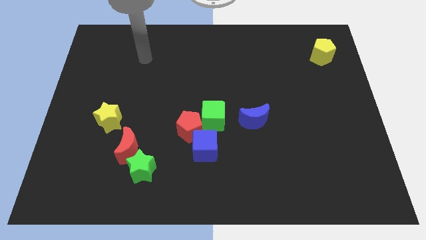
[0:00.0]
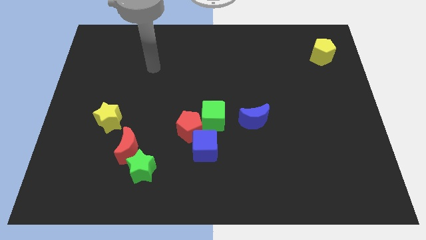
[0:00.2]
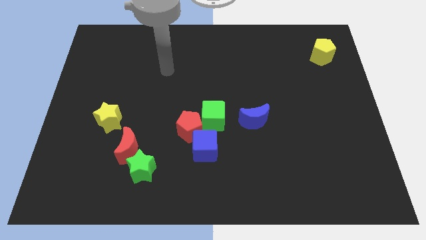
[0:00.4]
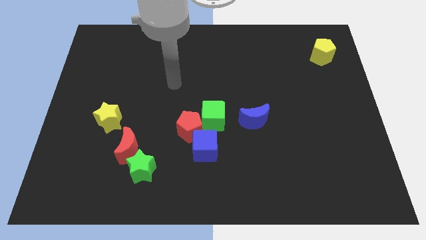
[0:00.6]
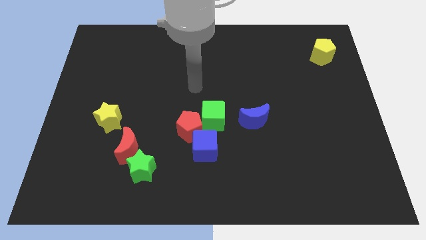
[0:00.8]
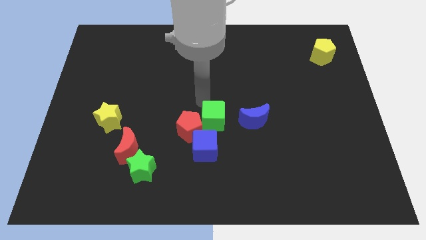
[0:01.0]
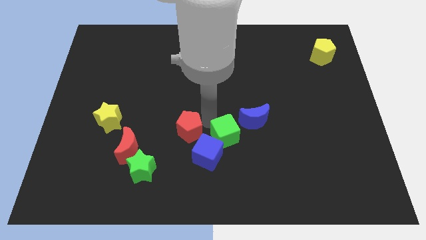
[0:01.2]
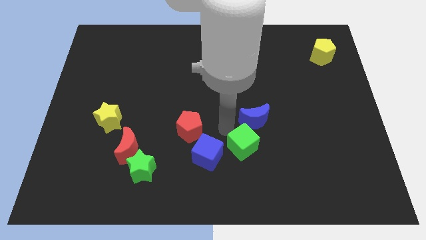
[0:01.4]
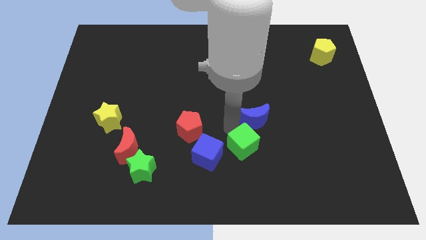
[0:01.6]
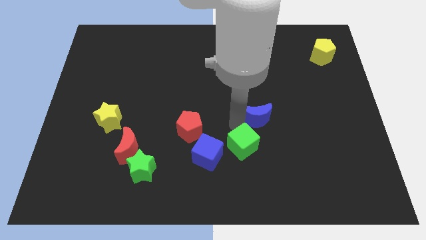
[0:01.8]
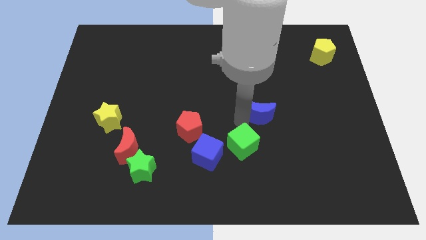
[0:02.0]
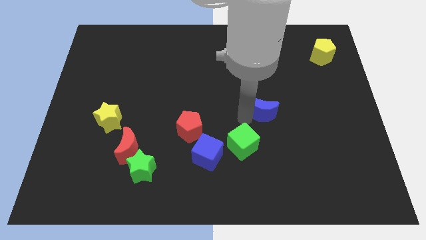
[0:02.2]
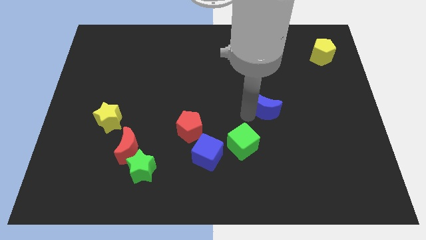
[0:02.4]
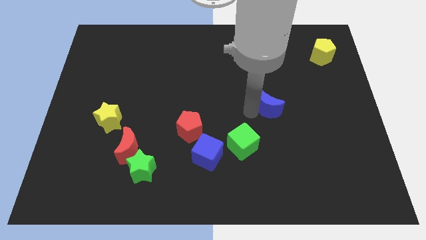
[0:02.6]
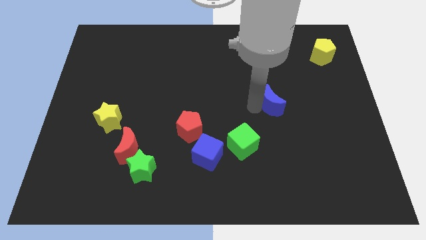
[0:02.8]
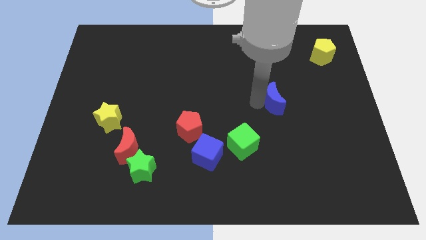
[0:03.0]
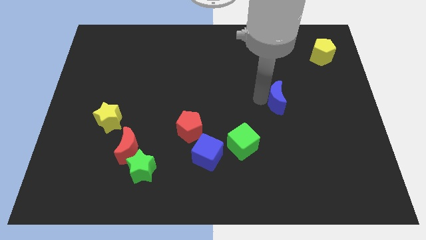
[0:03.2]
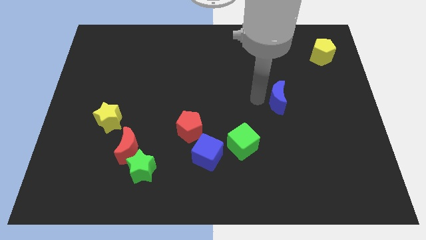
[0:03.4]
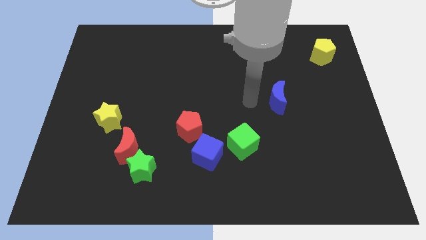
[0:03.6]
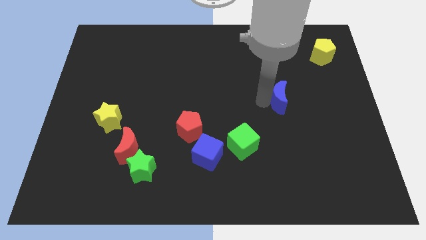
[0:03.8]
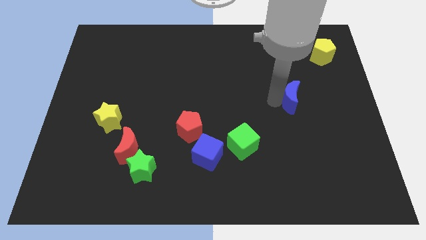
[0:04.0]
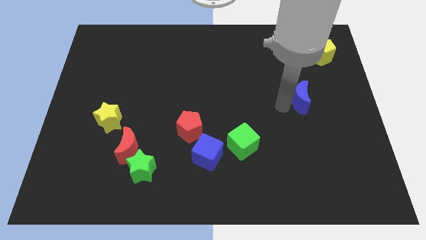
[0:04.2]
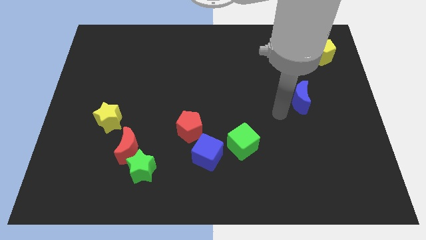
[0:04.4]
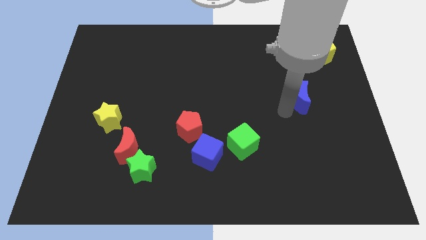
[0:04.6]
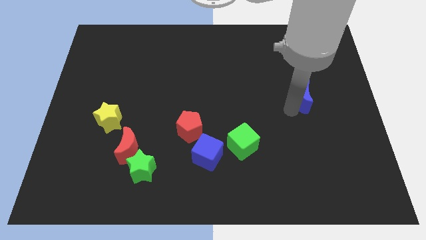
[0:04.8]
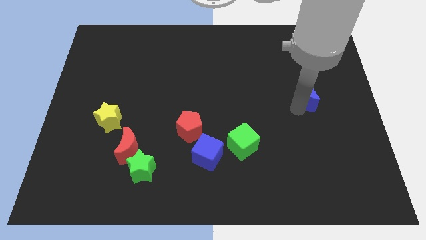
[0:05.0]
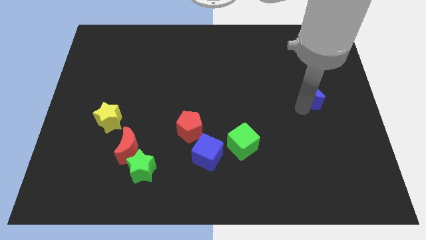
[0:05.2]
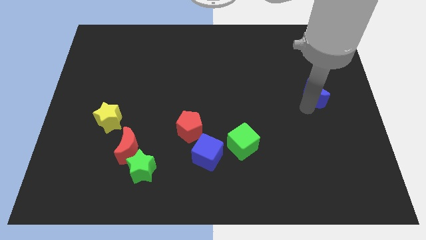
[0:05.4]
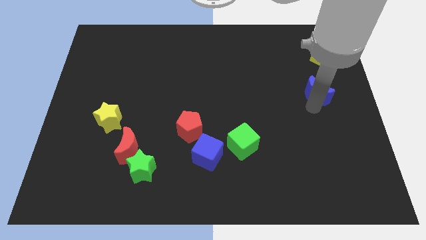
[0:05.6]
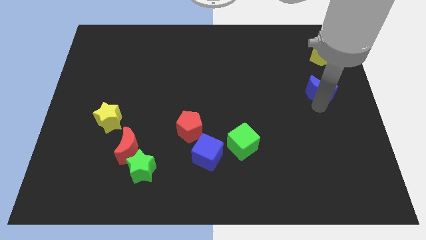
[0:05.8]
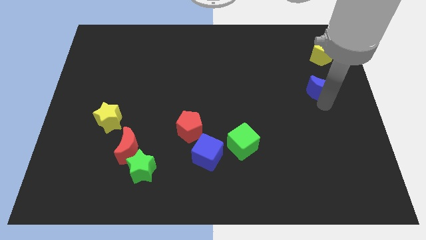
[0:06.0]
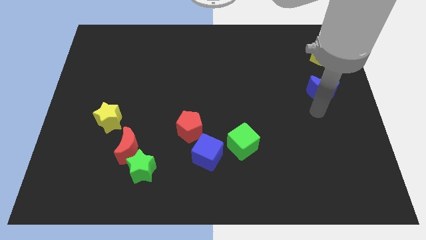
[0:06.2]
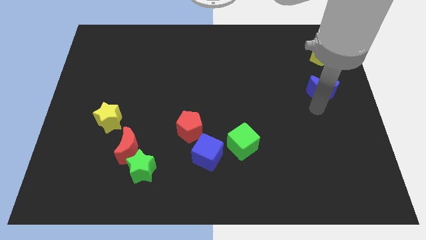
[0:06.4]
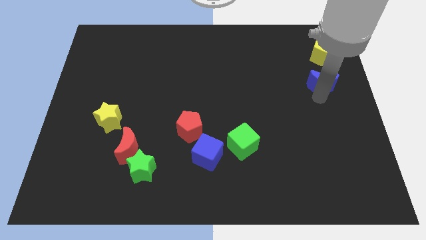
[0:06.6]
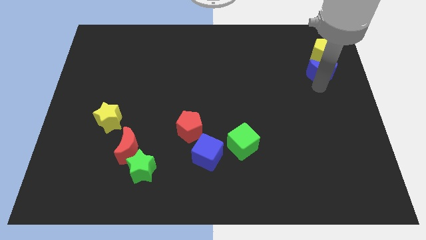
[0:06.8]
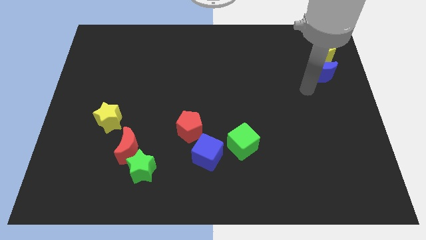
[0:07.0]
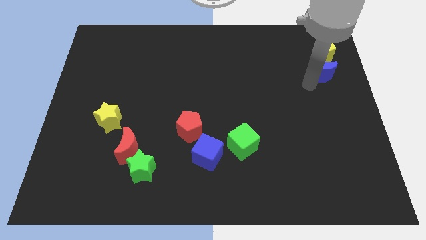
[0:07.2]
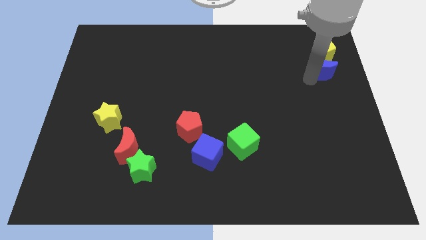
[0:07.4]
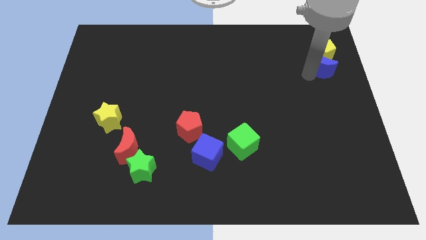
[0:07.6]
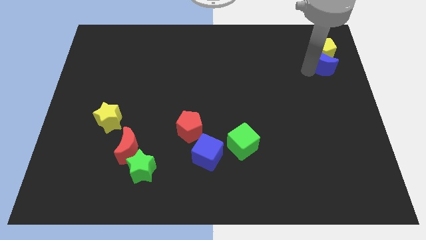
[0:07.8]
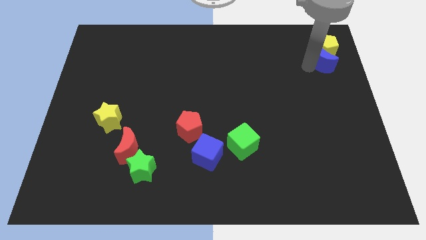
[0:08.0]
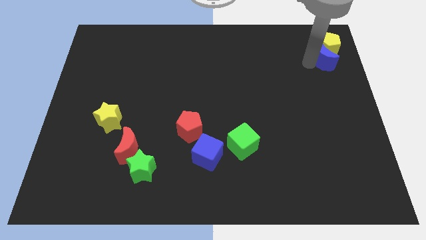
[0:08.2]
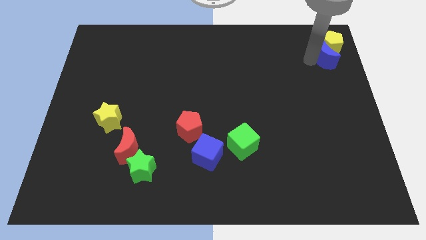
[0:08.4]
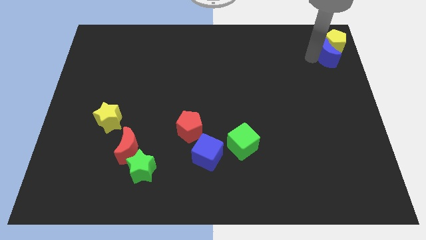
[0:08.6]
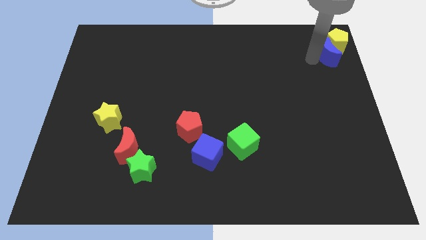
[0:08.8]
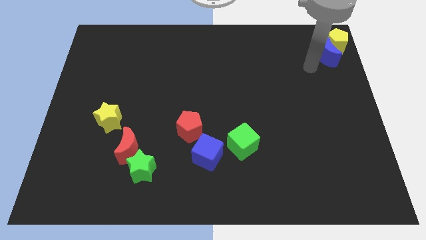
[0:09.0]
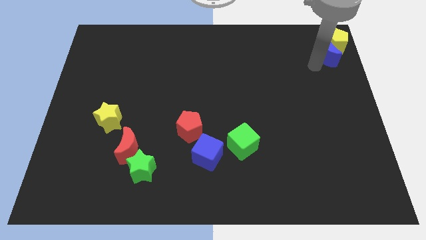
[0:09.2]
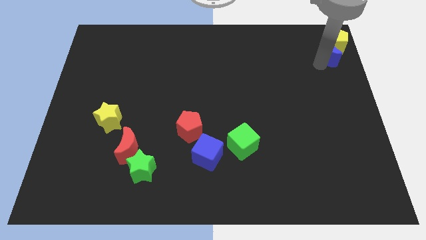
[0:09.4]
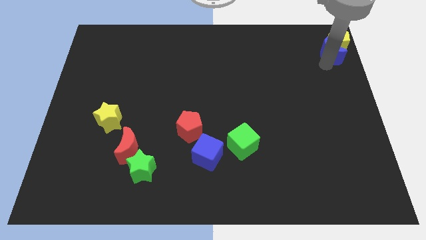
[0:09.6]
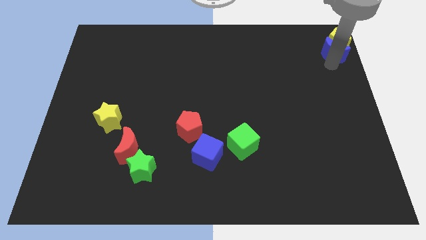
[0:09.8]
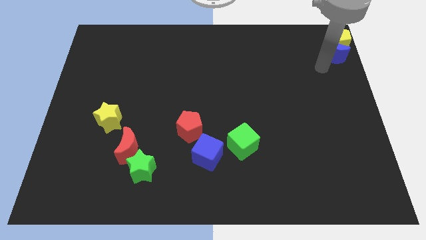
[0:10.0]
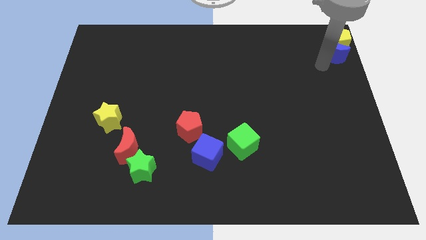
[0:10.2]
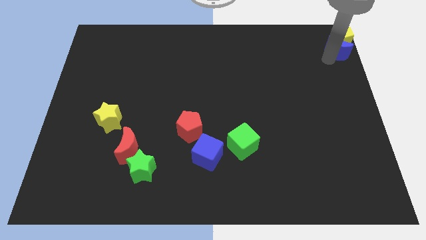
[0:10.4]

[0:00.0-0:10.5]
put the blue moon to the top right of the board

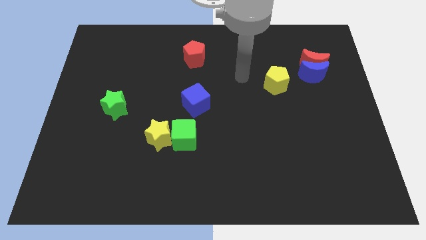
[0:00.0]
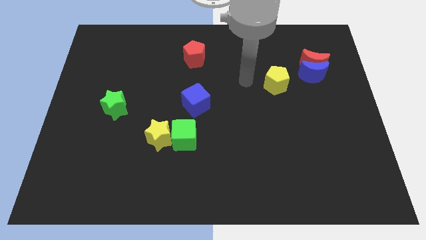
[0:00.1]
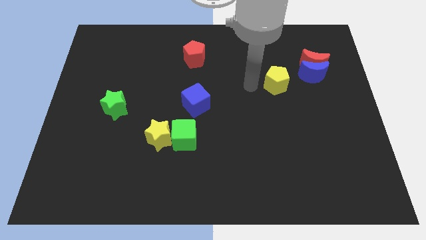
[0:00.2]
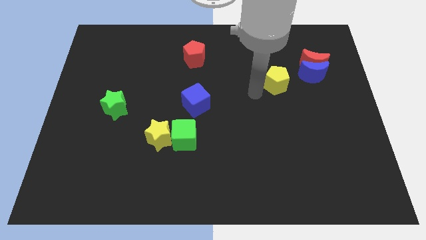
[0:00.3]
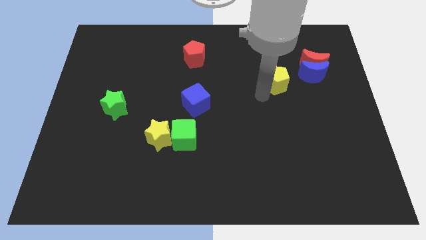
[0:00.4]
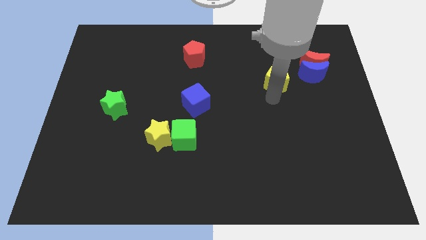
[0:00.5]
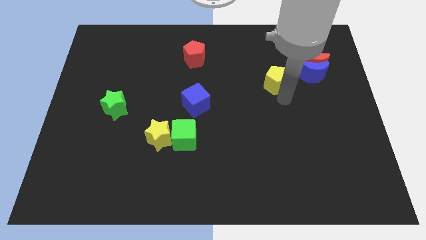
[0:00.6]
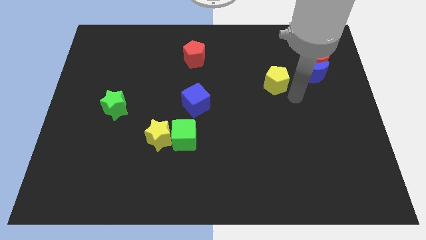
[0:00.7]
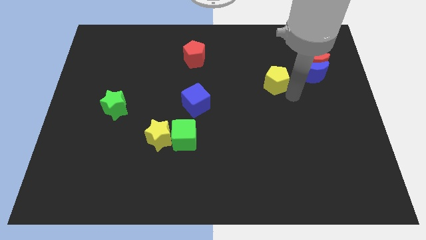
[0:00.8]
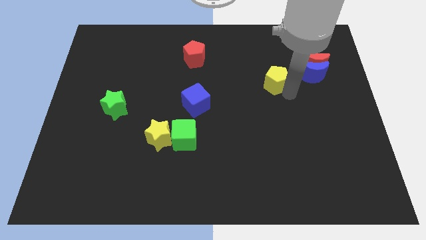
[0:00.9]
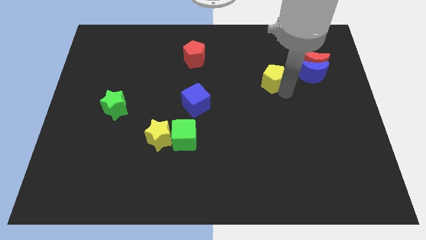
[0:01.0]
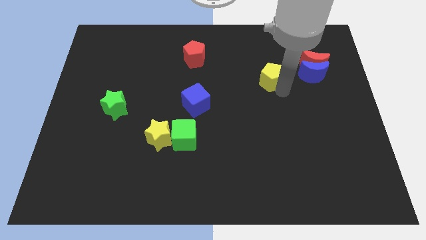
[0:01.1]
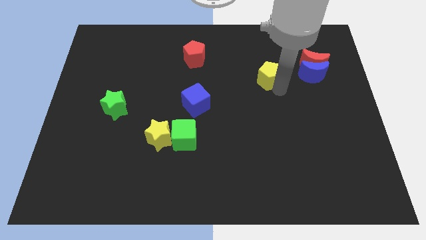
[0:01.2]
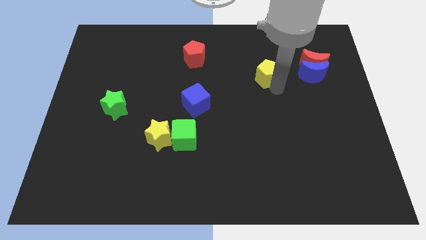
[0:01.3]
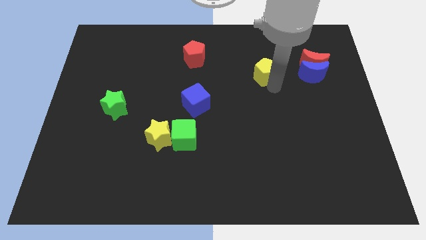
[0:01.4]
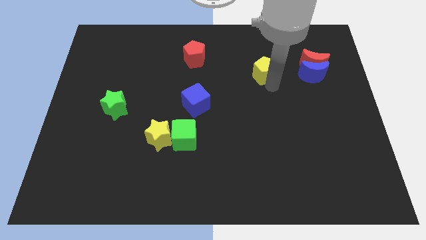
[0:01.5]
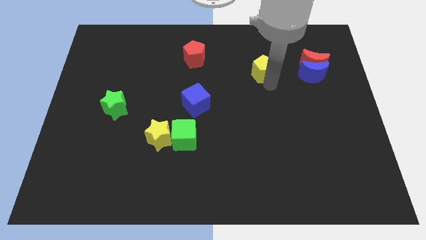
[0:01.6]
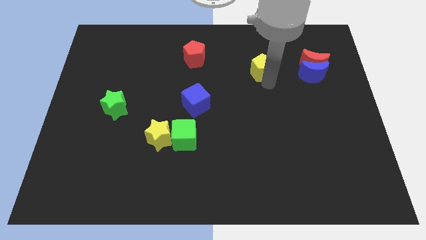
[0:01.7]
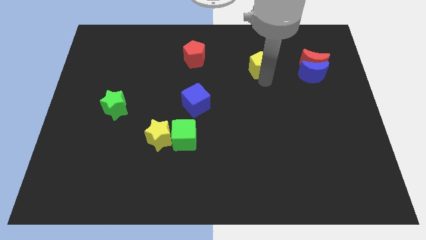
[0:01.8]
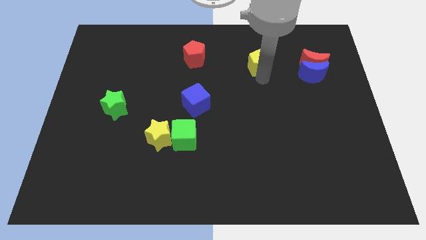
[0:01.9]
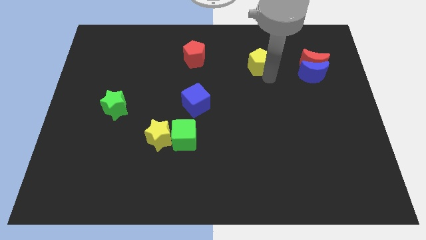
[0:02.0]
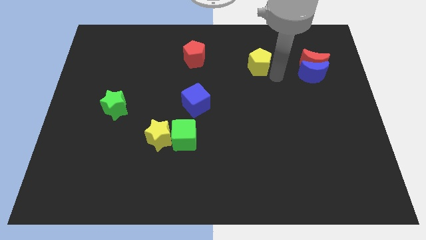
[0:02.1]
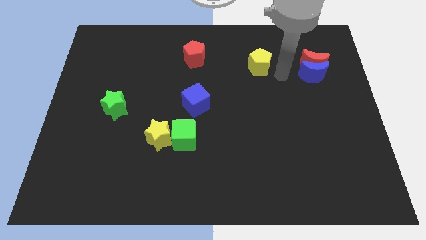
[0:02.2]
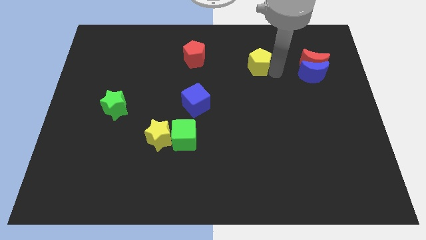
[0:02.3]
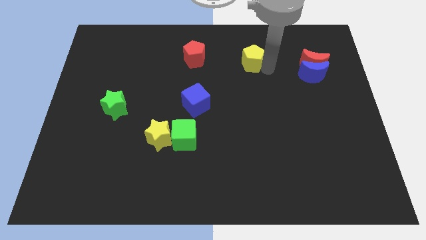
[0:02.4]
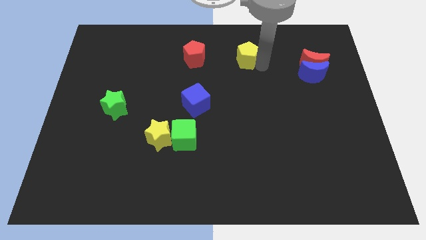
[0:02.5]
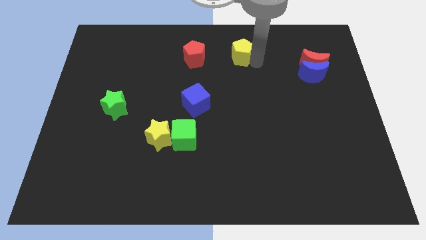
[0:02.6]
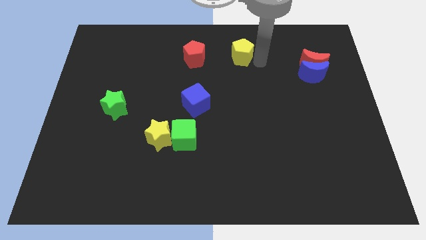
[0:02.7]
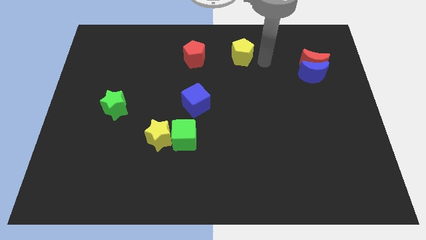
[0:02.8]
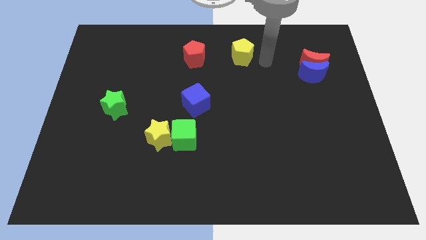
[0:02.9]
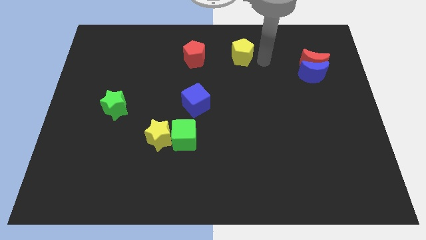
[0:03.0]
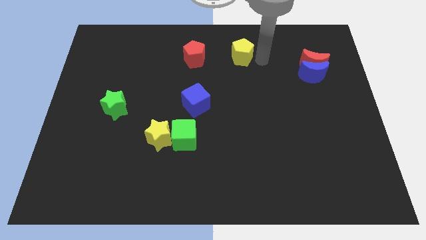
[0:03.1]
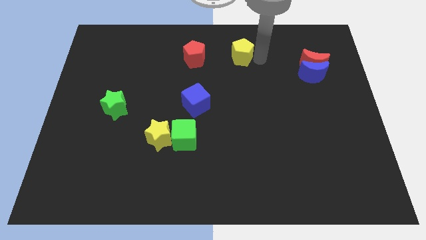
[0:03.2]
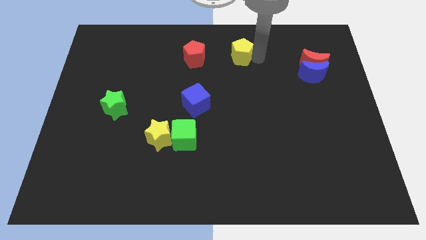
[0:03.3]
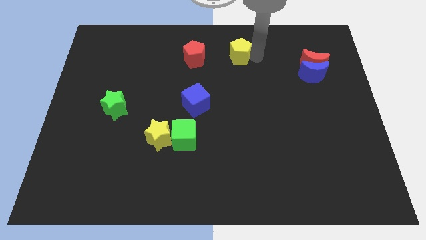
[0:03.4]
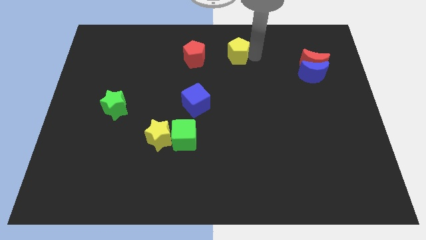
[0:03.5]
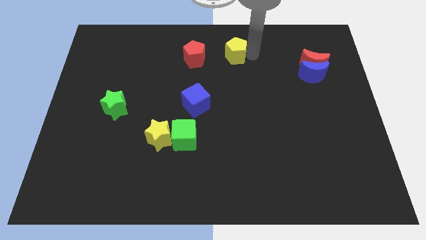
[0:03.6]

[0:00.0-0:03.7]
move the yellow pentagon to the top
